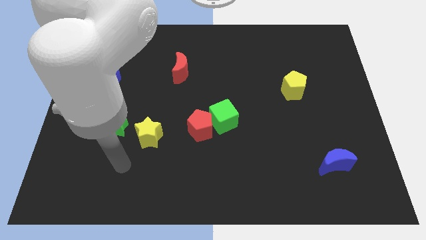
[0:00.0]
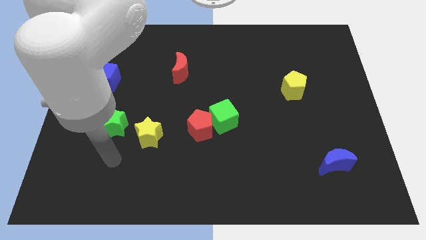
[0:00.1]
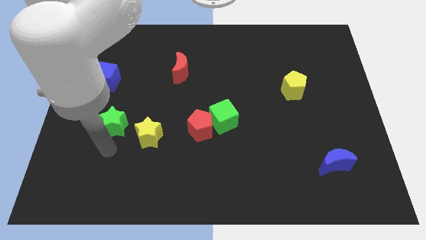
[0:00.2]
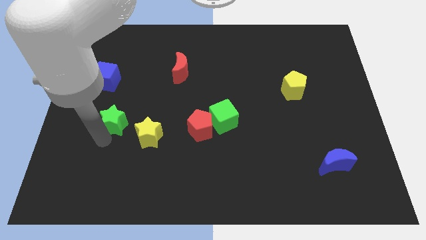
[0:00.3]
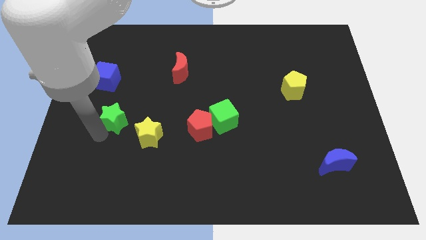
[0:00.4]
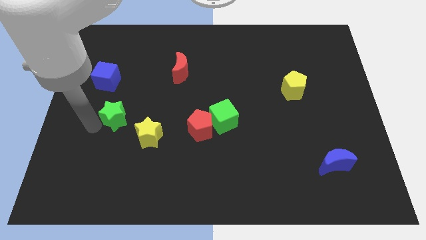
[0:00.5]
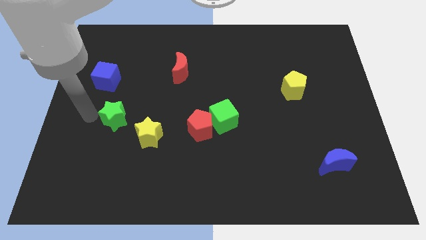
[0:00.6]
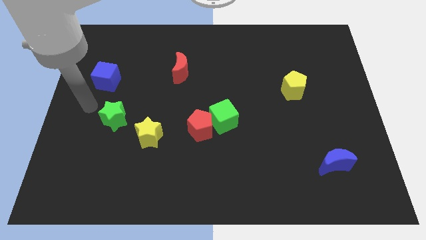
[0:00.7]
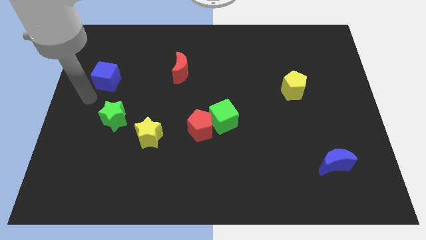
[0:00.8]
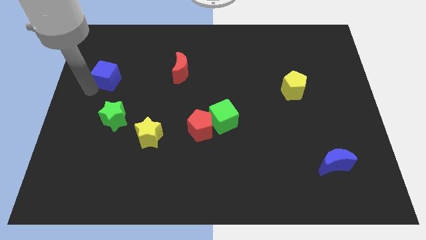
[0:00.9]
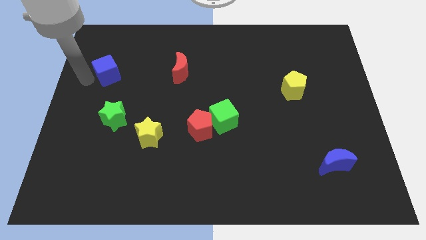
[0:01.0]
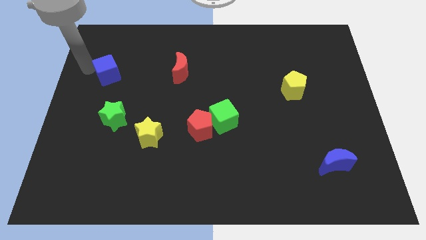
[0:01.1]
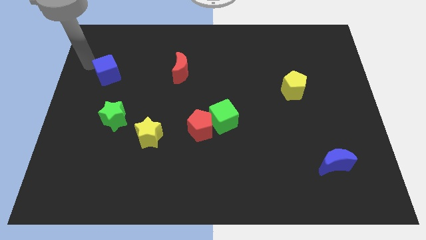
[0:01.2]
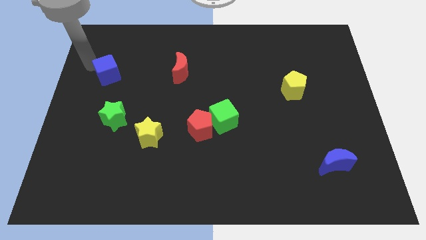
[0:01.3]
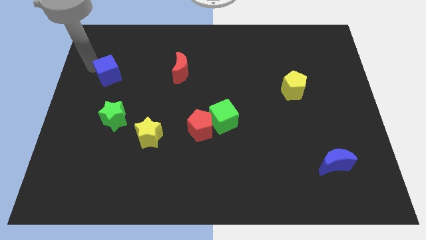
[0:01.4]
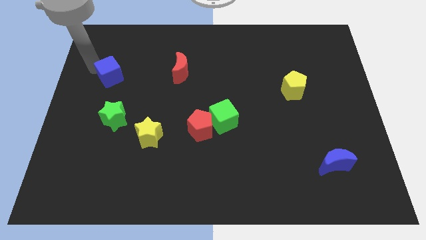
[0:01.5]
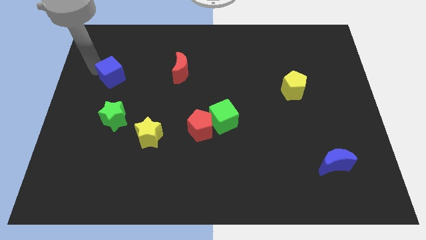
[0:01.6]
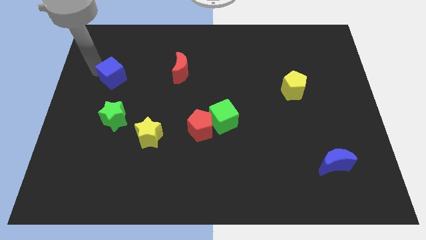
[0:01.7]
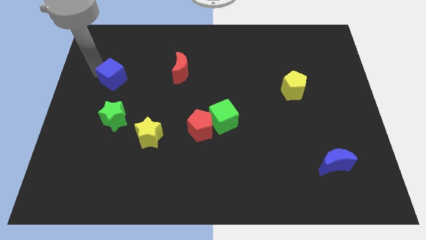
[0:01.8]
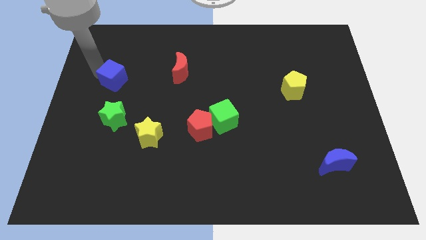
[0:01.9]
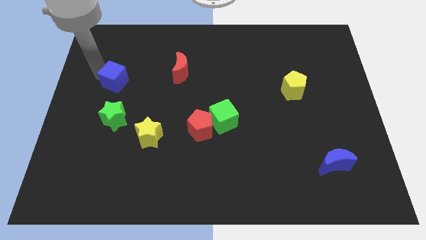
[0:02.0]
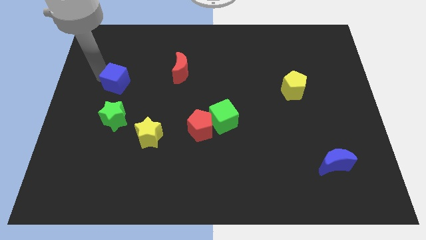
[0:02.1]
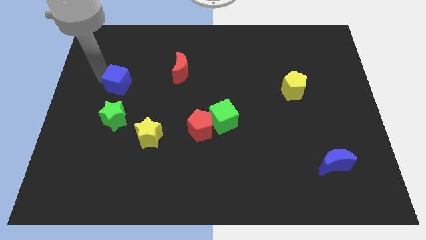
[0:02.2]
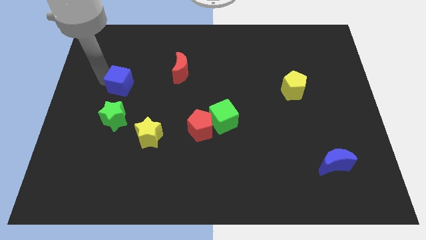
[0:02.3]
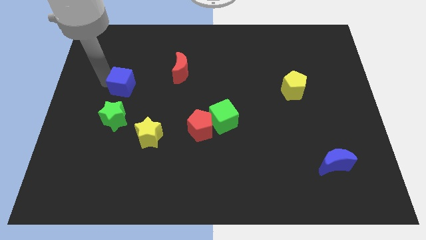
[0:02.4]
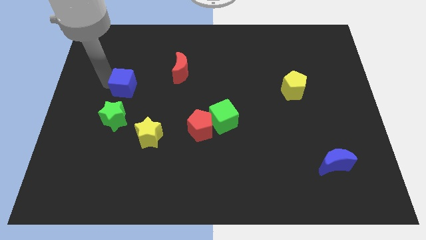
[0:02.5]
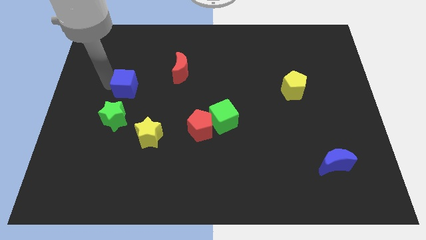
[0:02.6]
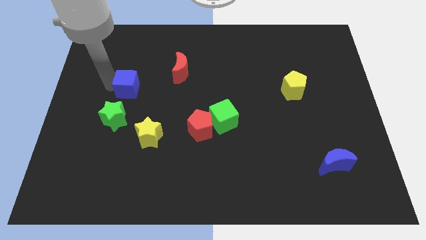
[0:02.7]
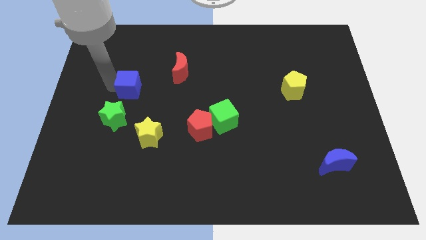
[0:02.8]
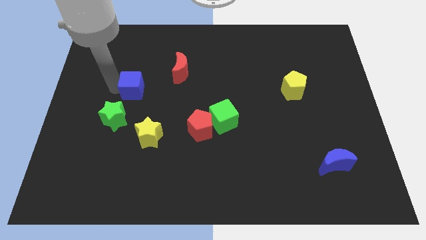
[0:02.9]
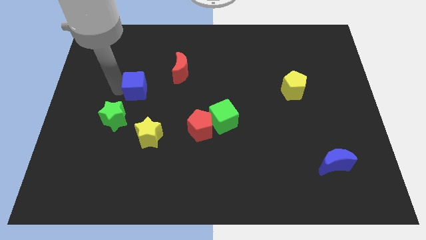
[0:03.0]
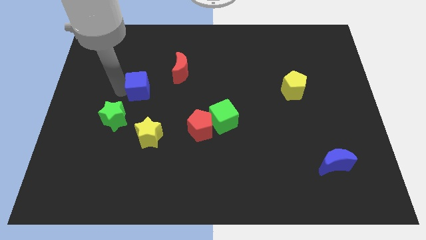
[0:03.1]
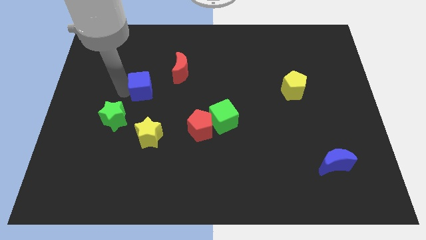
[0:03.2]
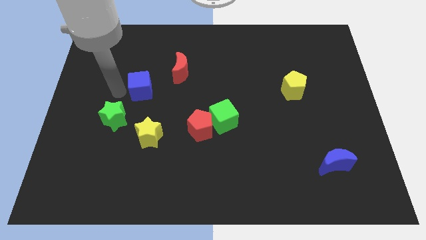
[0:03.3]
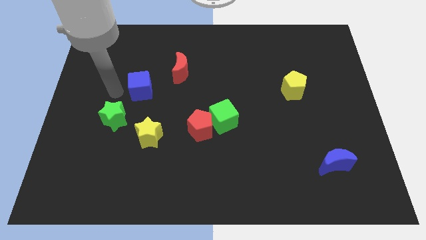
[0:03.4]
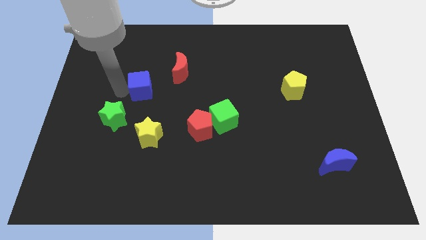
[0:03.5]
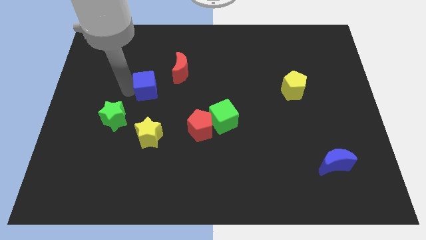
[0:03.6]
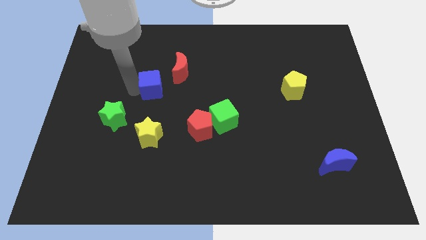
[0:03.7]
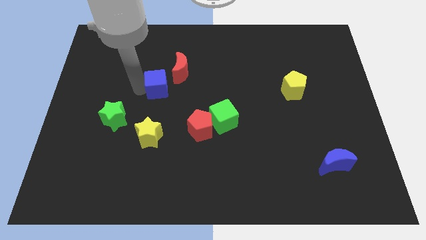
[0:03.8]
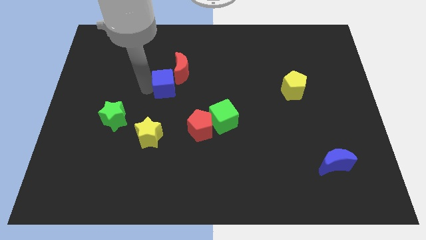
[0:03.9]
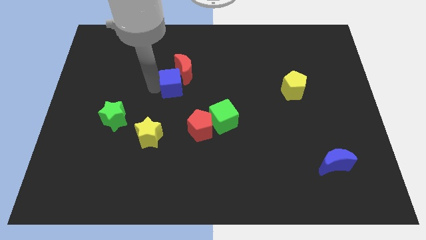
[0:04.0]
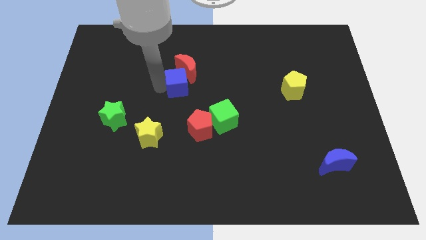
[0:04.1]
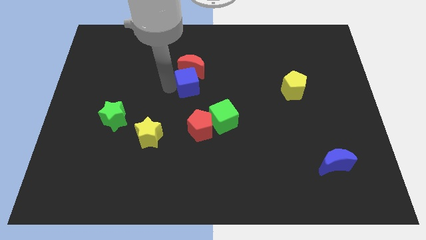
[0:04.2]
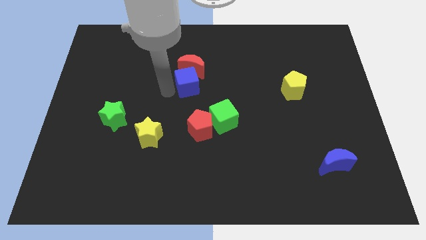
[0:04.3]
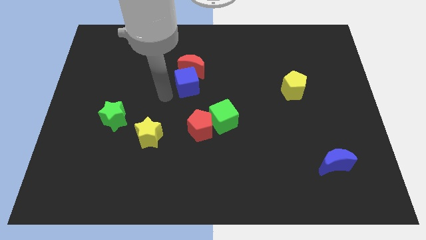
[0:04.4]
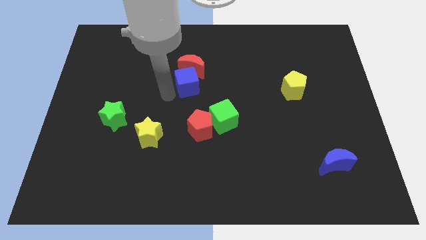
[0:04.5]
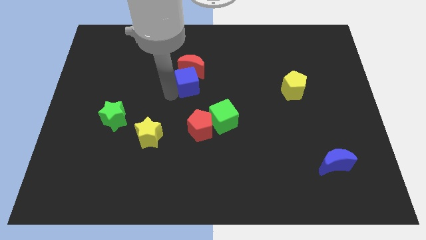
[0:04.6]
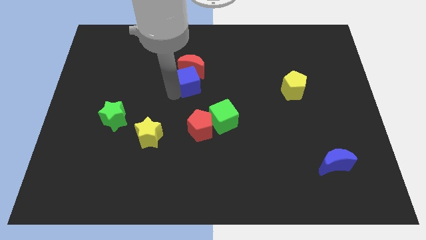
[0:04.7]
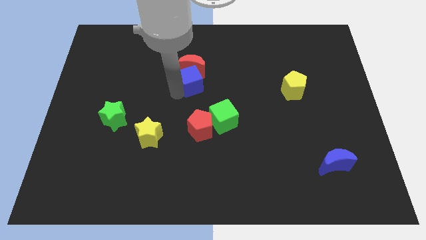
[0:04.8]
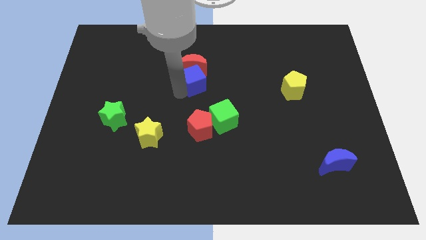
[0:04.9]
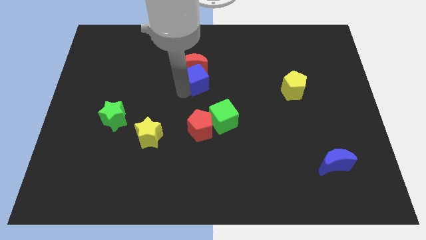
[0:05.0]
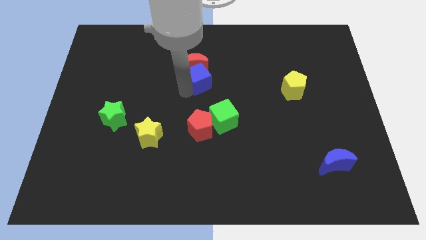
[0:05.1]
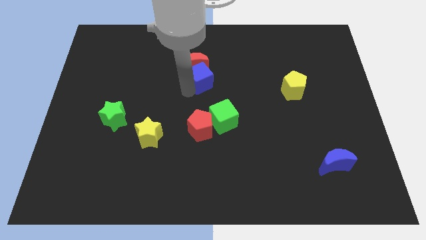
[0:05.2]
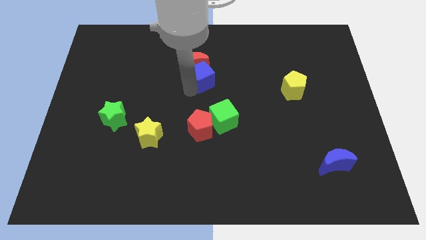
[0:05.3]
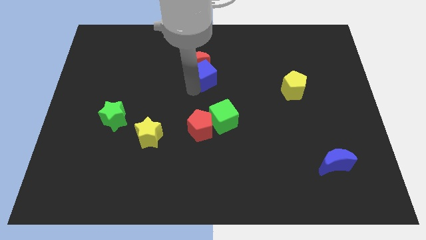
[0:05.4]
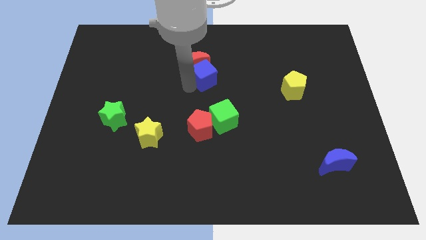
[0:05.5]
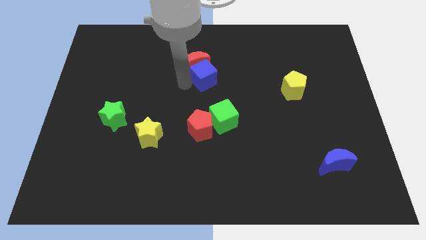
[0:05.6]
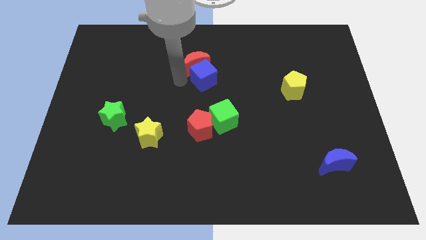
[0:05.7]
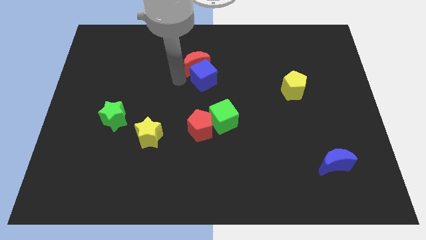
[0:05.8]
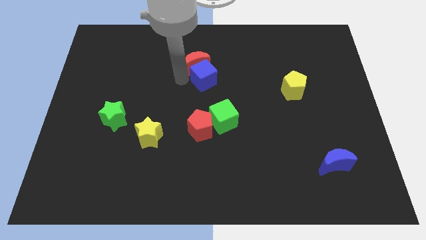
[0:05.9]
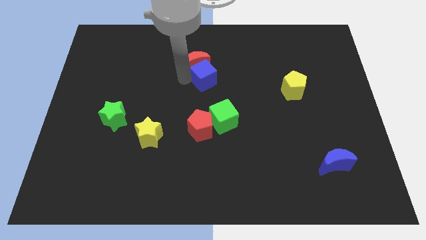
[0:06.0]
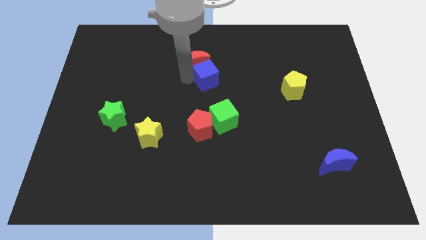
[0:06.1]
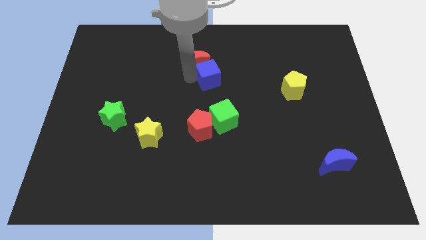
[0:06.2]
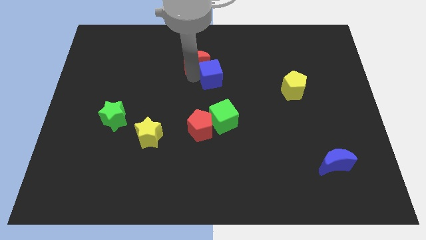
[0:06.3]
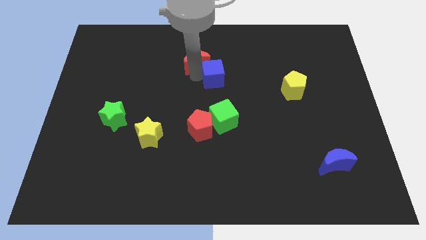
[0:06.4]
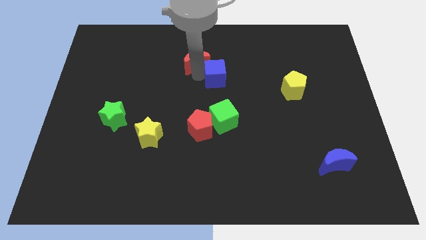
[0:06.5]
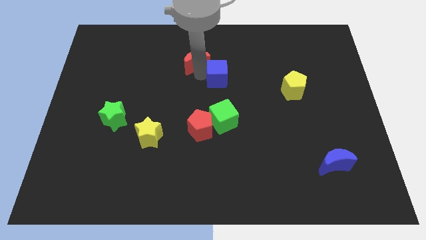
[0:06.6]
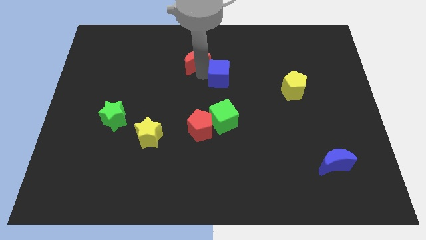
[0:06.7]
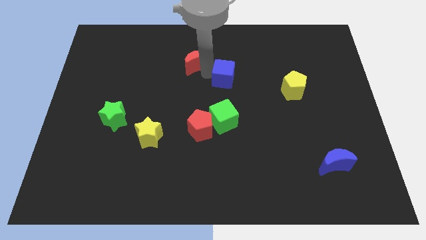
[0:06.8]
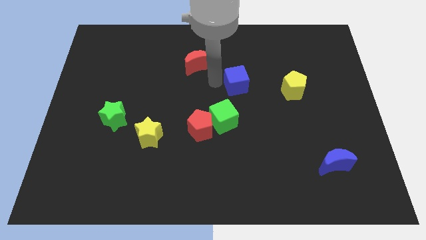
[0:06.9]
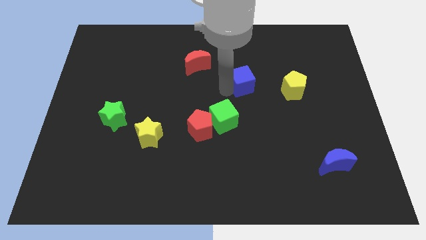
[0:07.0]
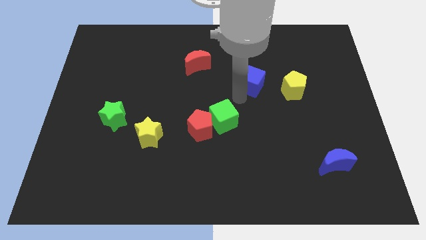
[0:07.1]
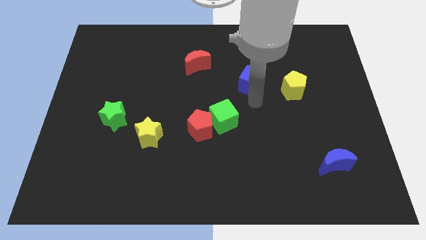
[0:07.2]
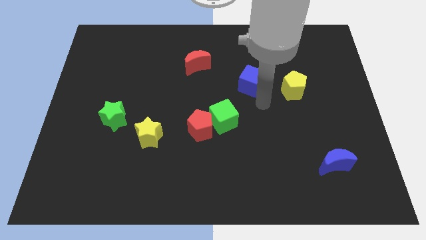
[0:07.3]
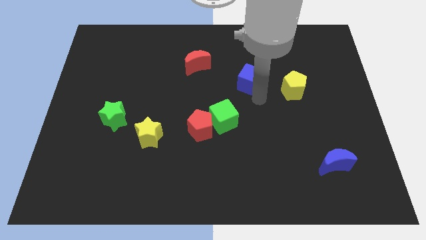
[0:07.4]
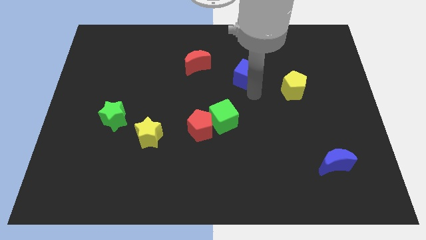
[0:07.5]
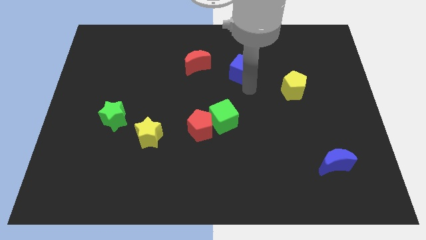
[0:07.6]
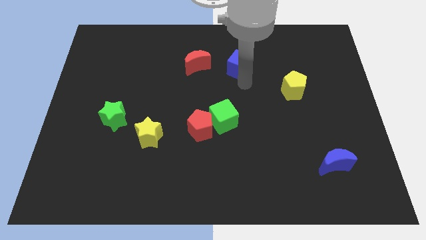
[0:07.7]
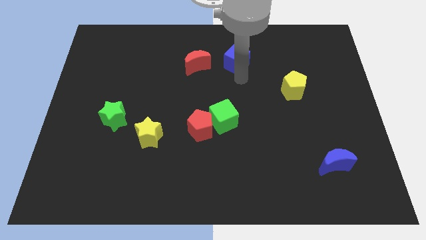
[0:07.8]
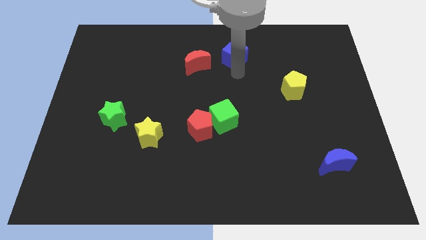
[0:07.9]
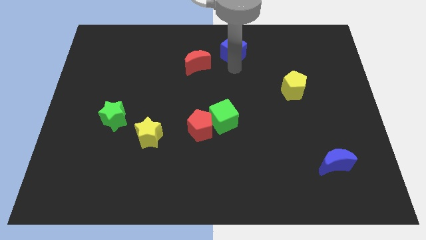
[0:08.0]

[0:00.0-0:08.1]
put the blue cube to the towards your base
